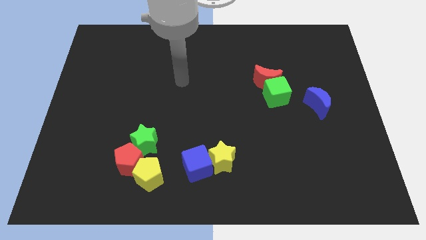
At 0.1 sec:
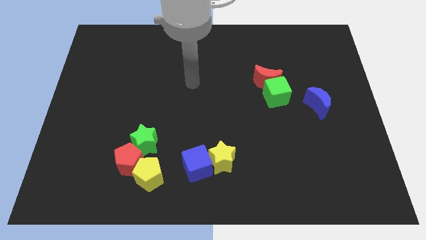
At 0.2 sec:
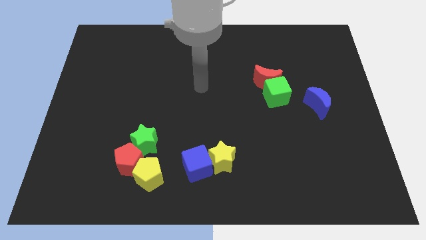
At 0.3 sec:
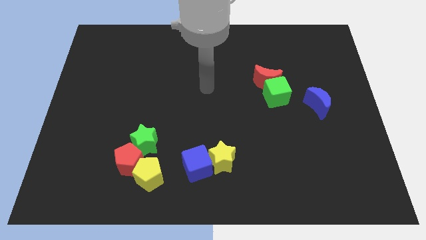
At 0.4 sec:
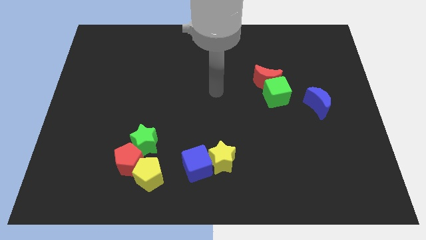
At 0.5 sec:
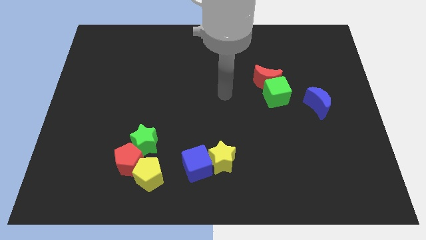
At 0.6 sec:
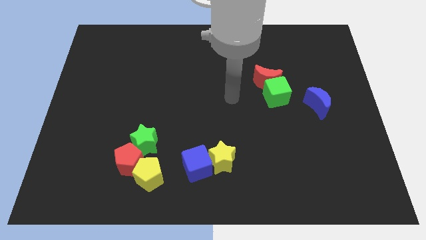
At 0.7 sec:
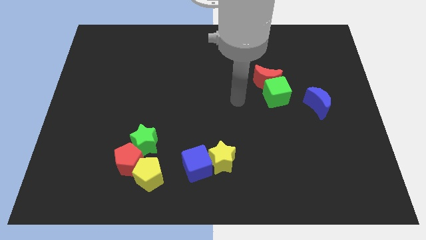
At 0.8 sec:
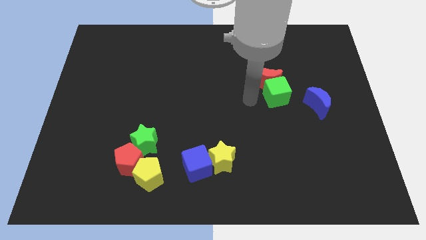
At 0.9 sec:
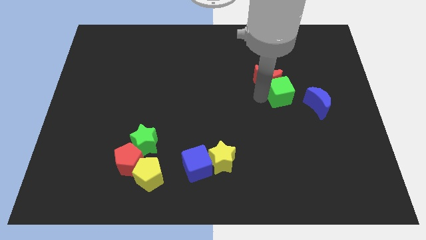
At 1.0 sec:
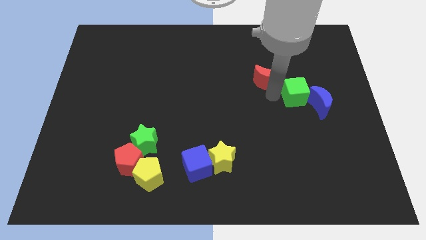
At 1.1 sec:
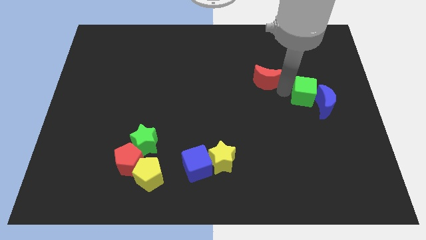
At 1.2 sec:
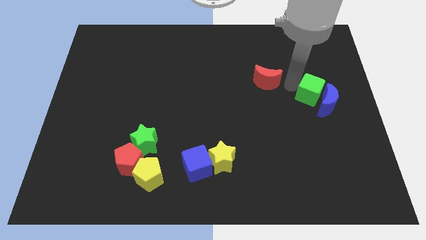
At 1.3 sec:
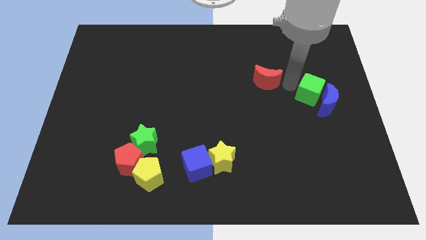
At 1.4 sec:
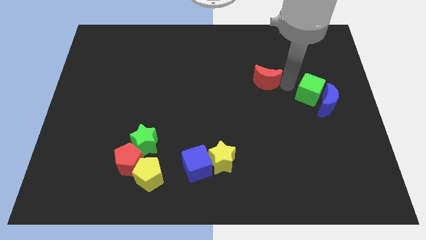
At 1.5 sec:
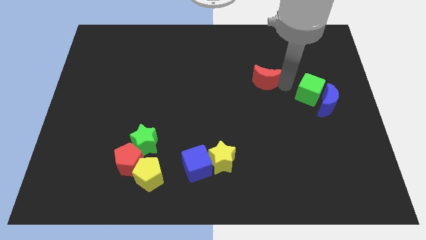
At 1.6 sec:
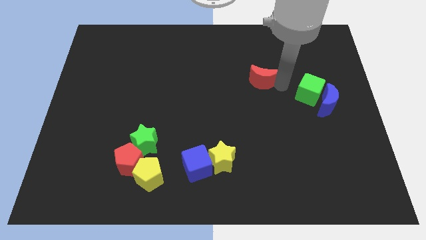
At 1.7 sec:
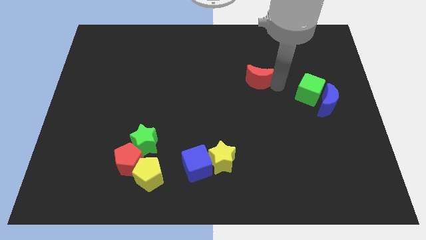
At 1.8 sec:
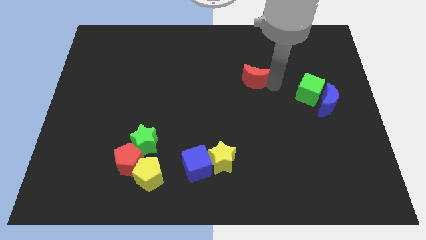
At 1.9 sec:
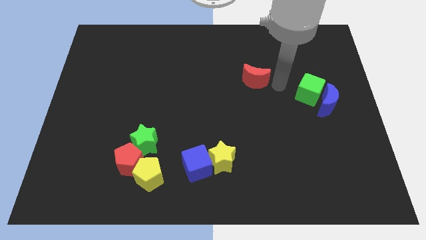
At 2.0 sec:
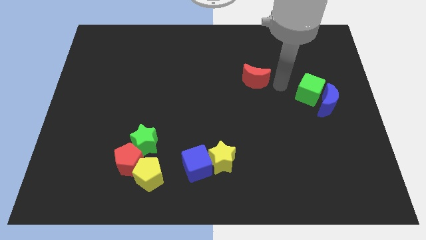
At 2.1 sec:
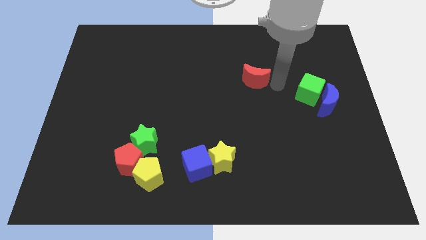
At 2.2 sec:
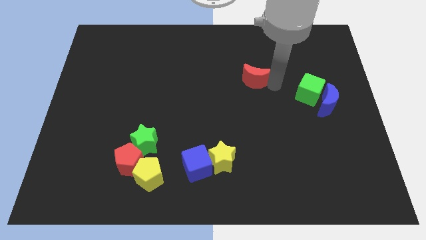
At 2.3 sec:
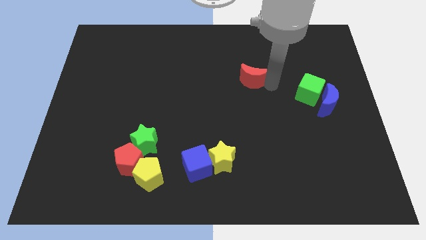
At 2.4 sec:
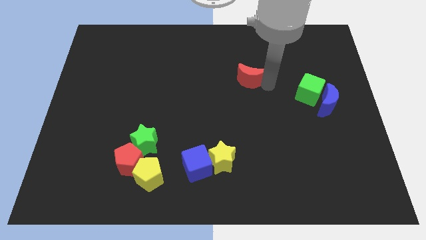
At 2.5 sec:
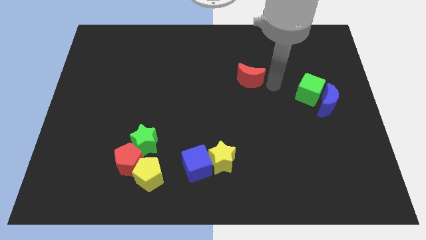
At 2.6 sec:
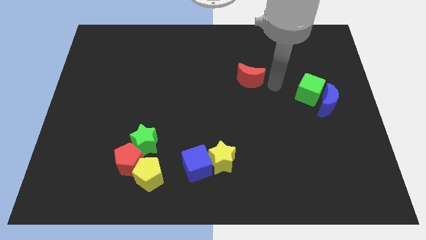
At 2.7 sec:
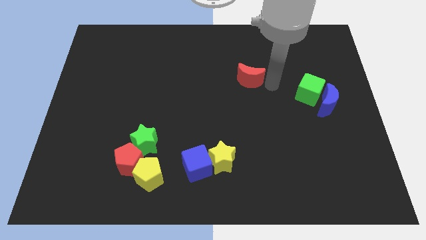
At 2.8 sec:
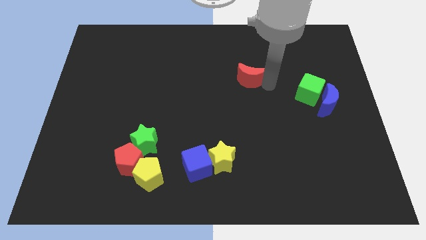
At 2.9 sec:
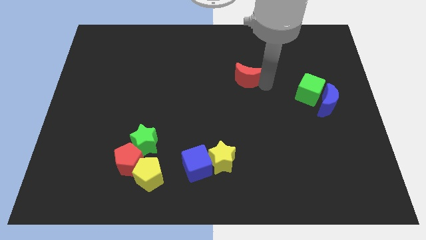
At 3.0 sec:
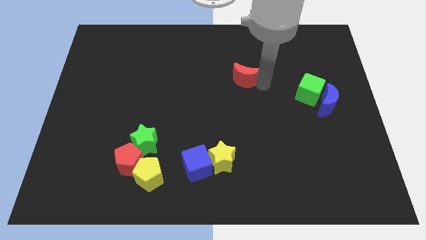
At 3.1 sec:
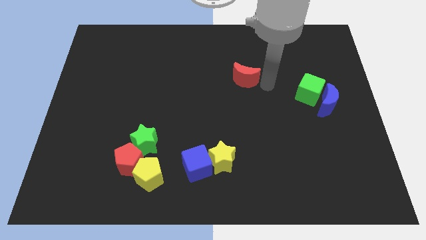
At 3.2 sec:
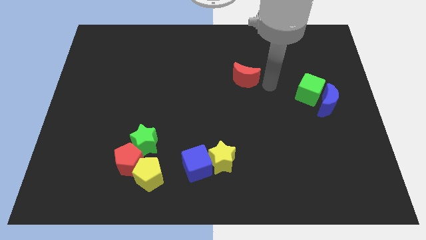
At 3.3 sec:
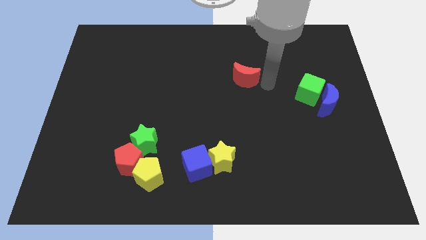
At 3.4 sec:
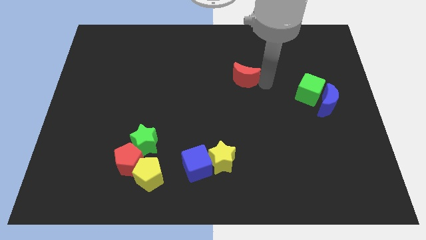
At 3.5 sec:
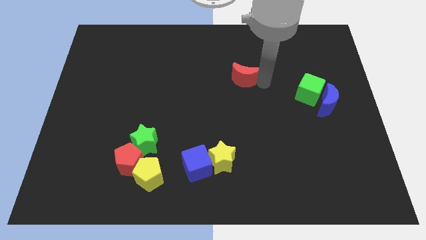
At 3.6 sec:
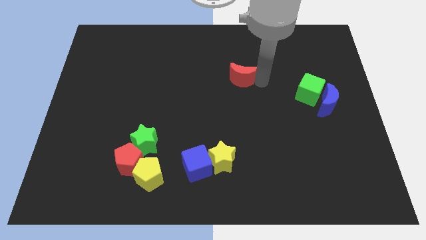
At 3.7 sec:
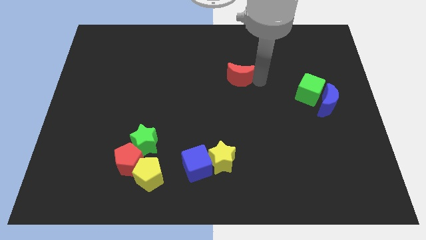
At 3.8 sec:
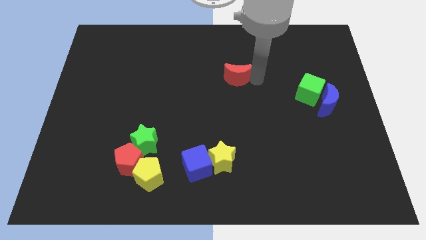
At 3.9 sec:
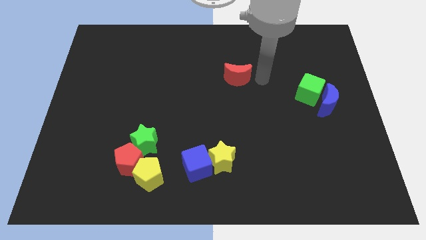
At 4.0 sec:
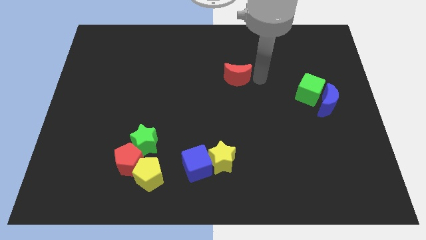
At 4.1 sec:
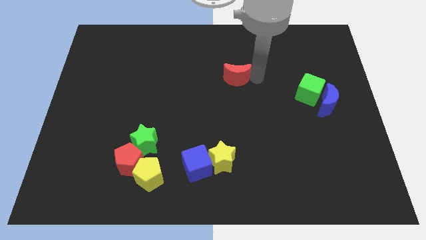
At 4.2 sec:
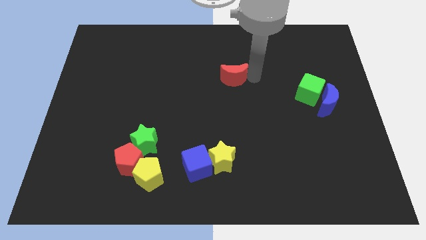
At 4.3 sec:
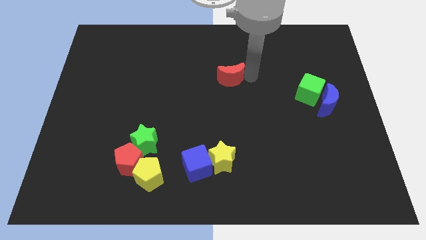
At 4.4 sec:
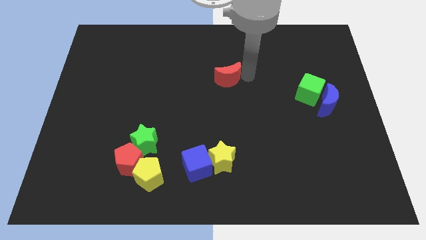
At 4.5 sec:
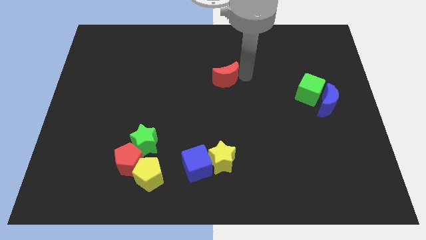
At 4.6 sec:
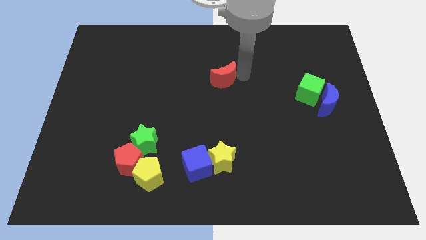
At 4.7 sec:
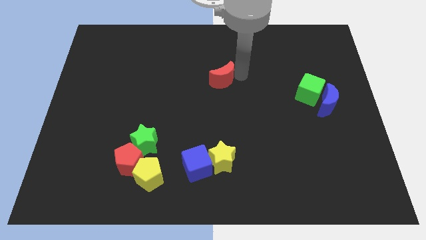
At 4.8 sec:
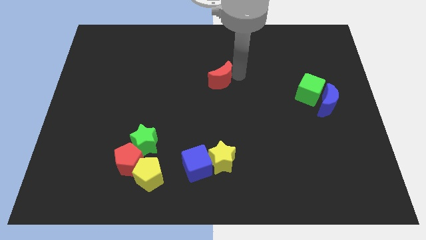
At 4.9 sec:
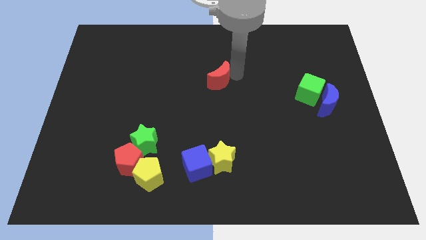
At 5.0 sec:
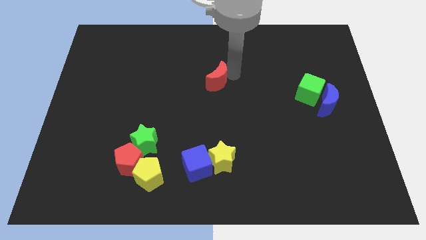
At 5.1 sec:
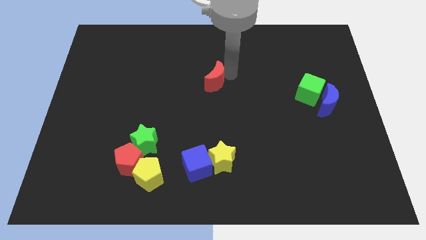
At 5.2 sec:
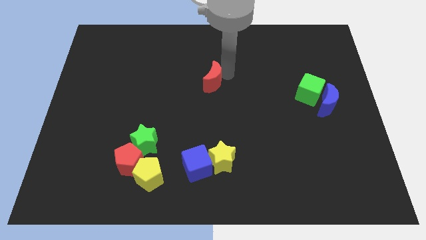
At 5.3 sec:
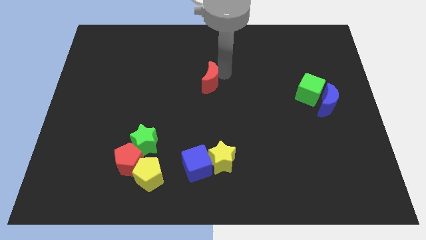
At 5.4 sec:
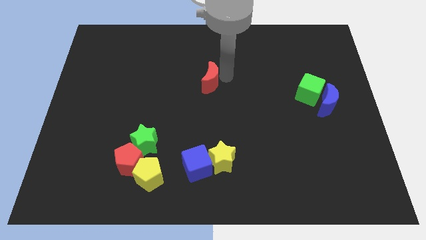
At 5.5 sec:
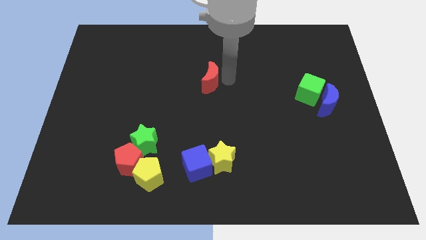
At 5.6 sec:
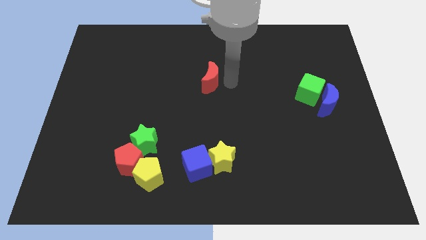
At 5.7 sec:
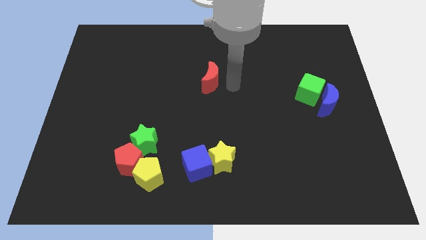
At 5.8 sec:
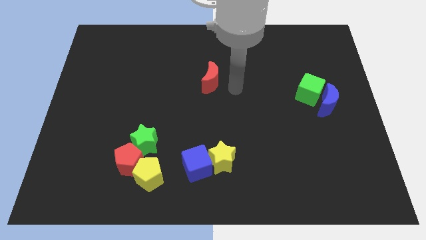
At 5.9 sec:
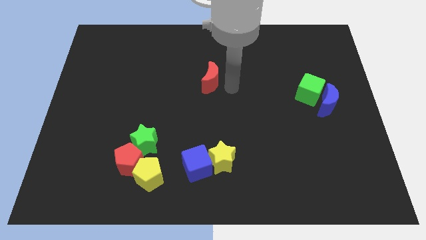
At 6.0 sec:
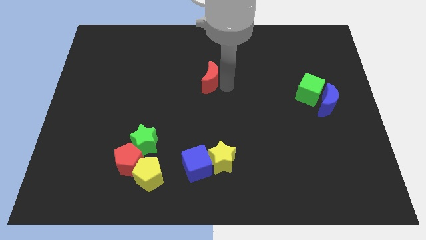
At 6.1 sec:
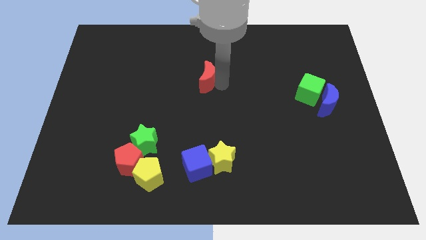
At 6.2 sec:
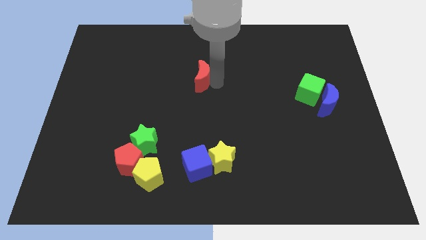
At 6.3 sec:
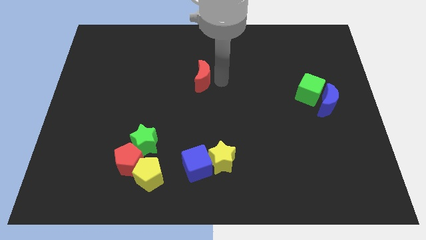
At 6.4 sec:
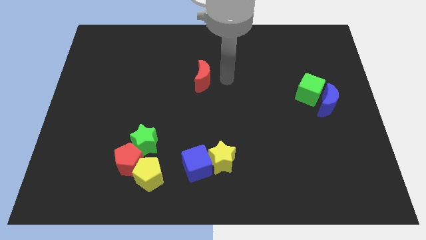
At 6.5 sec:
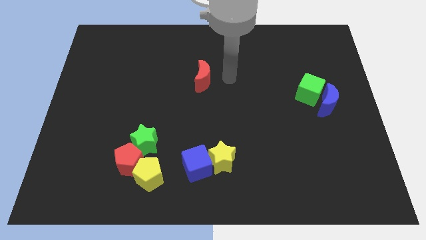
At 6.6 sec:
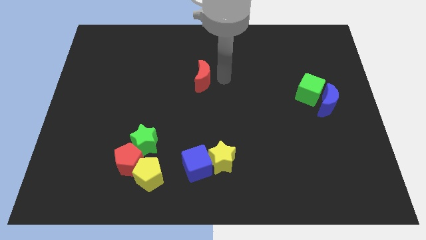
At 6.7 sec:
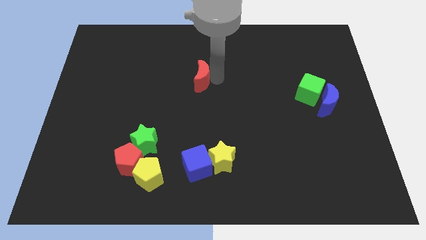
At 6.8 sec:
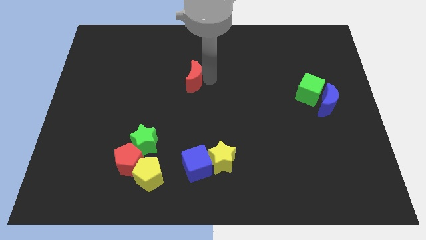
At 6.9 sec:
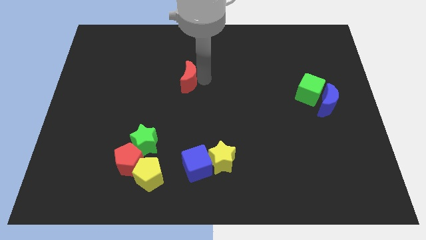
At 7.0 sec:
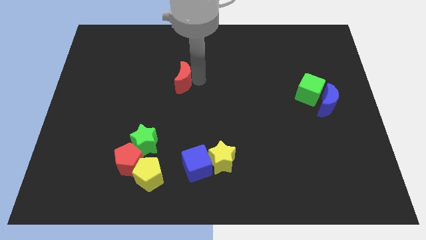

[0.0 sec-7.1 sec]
slide the red moon to the left

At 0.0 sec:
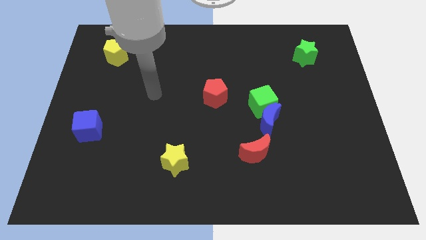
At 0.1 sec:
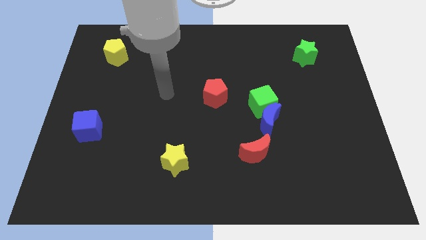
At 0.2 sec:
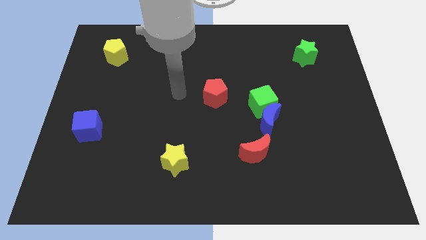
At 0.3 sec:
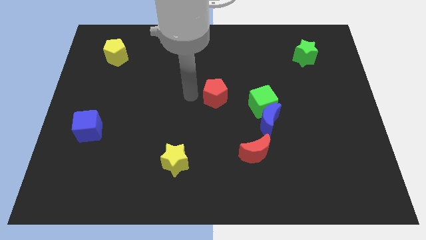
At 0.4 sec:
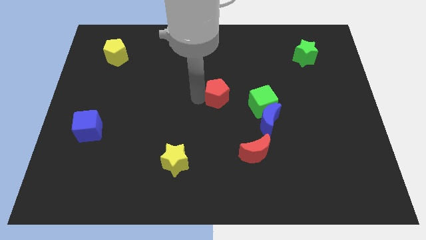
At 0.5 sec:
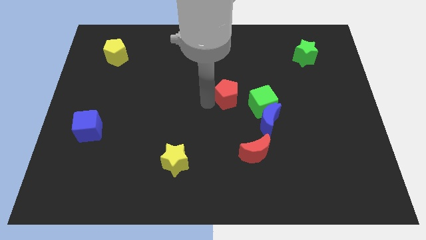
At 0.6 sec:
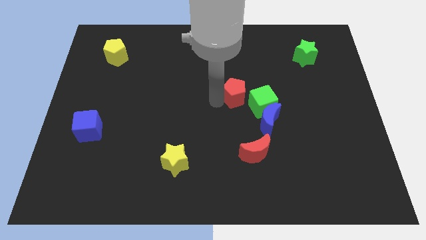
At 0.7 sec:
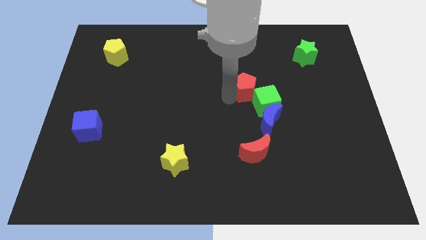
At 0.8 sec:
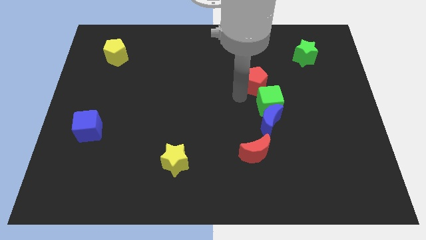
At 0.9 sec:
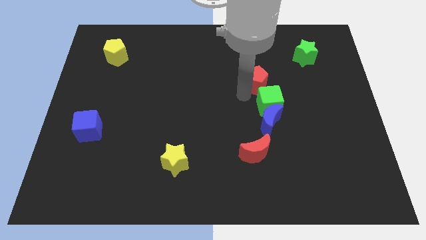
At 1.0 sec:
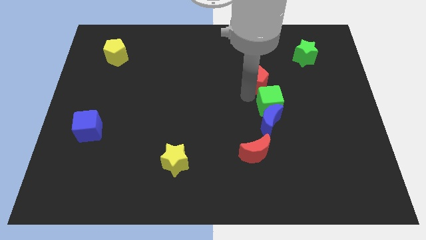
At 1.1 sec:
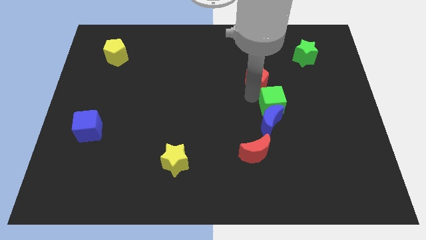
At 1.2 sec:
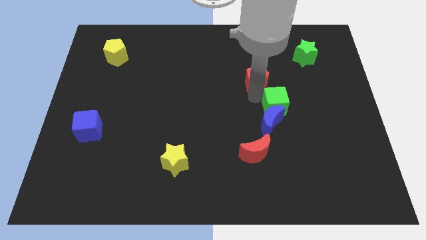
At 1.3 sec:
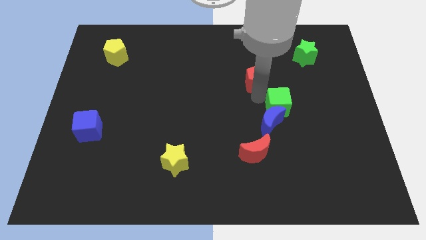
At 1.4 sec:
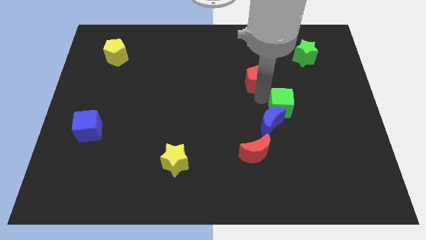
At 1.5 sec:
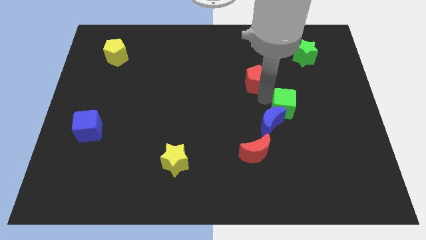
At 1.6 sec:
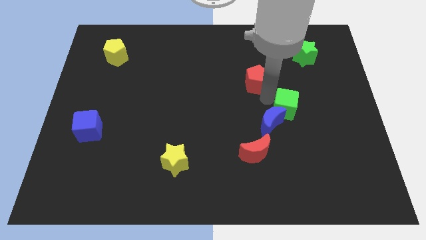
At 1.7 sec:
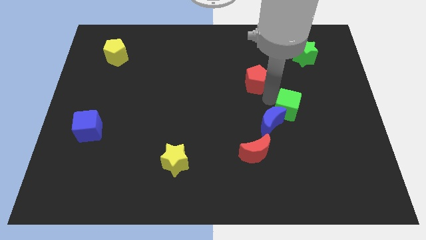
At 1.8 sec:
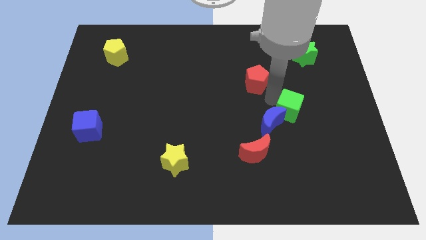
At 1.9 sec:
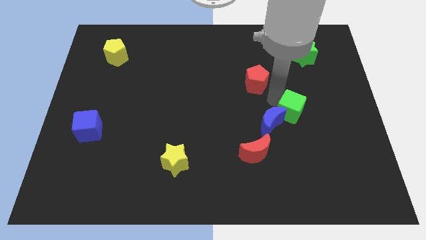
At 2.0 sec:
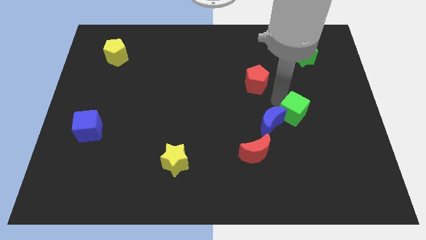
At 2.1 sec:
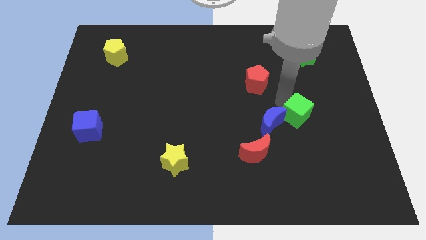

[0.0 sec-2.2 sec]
slightly push the green cube down and to the right
